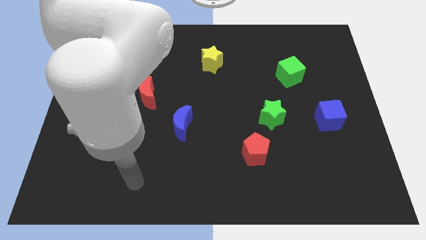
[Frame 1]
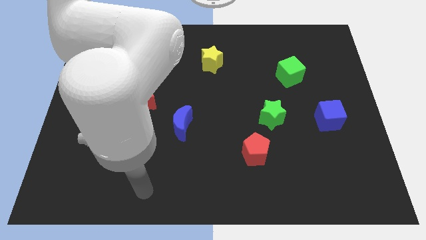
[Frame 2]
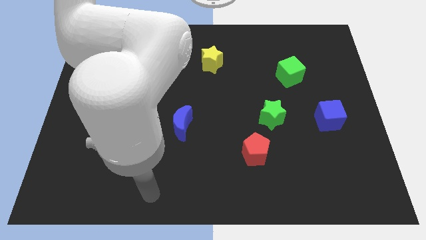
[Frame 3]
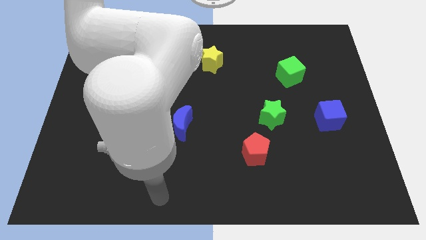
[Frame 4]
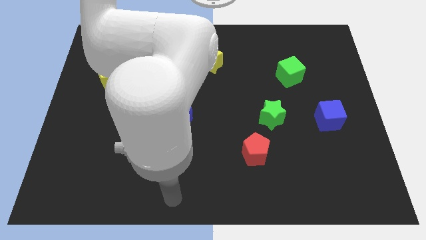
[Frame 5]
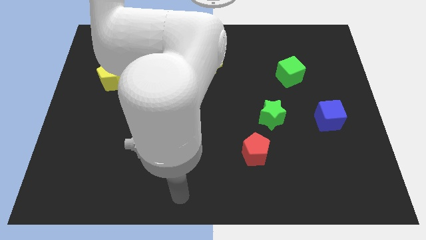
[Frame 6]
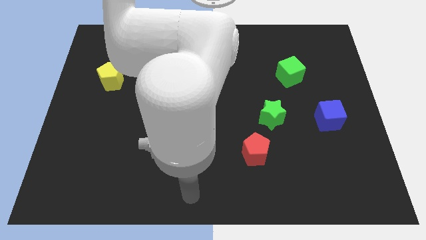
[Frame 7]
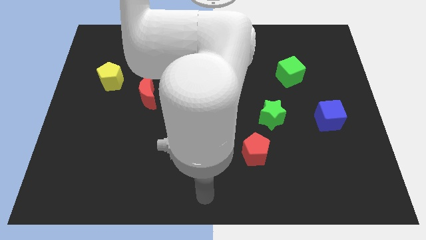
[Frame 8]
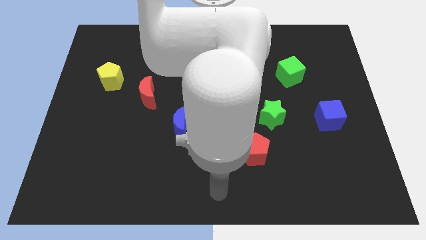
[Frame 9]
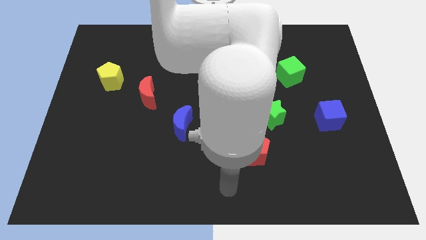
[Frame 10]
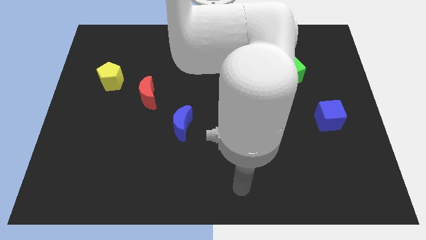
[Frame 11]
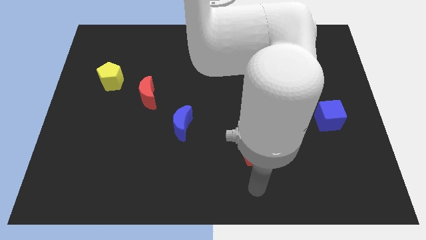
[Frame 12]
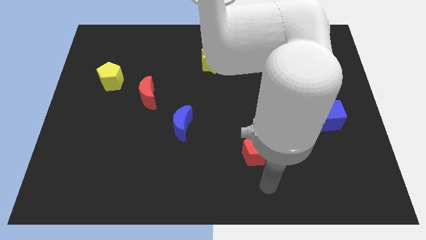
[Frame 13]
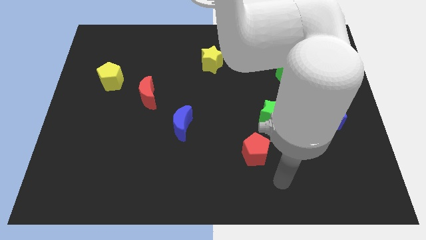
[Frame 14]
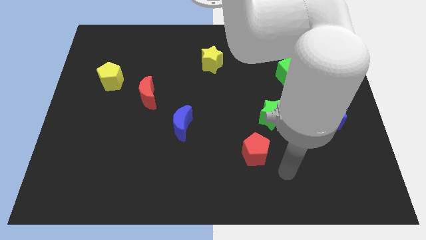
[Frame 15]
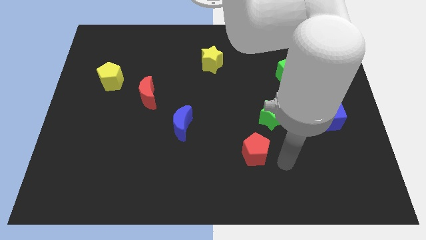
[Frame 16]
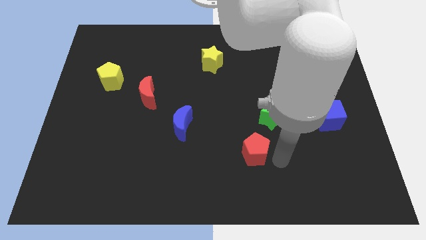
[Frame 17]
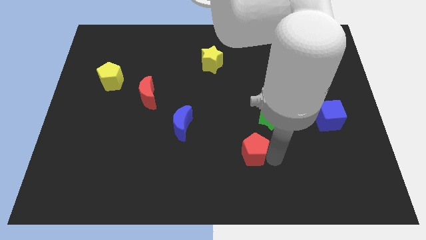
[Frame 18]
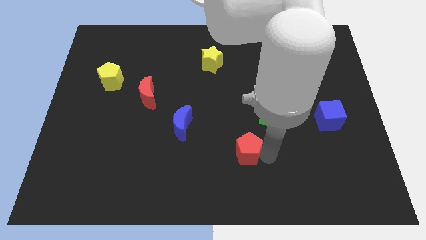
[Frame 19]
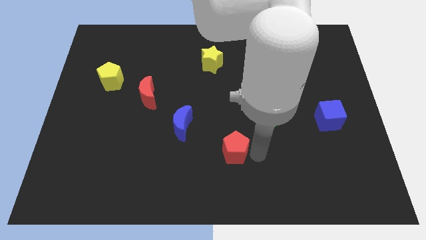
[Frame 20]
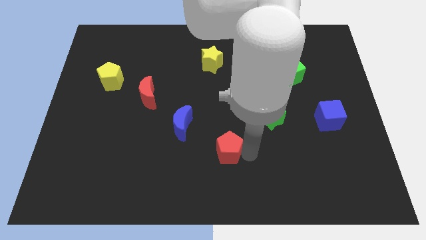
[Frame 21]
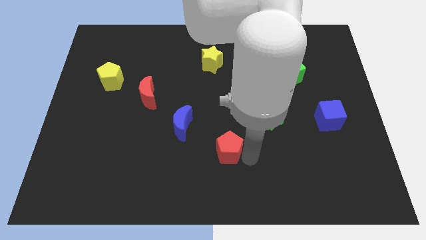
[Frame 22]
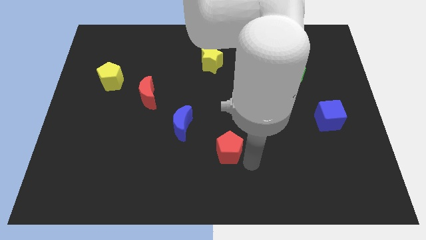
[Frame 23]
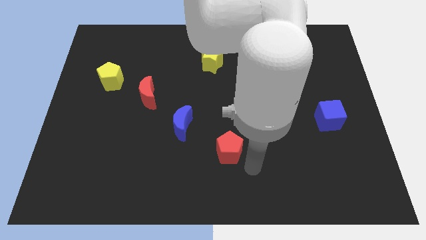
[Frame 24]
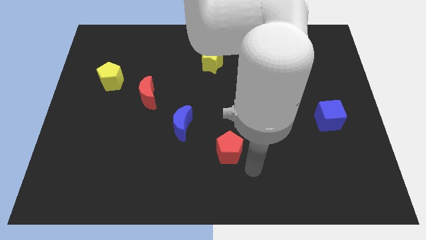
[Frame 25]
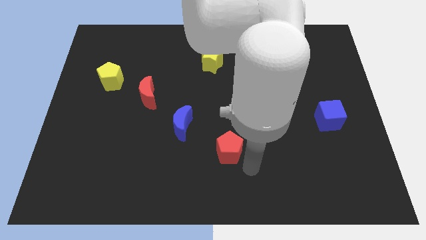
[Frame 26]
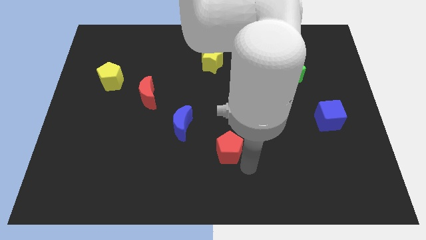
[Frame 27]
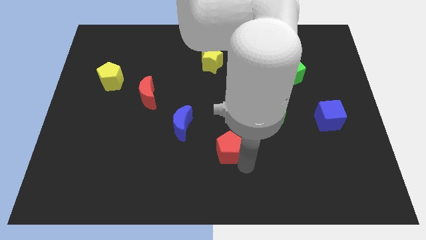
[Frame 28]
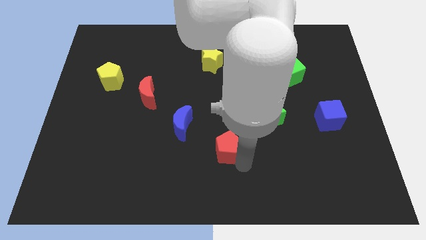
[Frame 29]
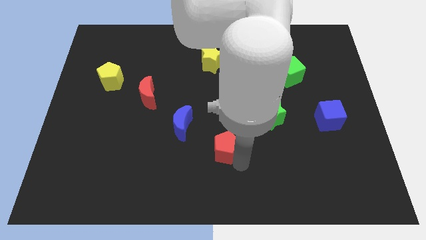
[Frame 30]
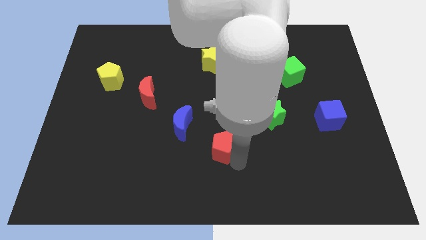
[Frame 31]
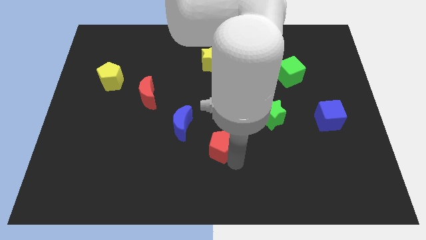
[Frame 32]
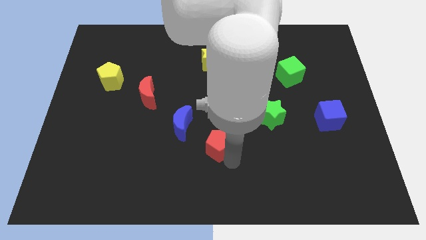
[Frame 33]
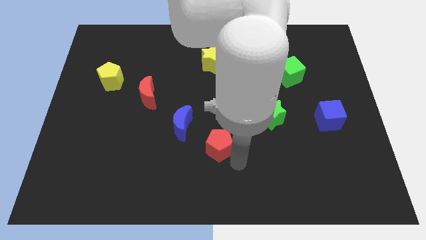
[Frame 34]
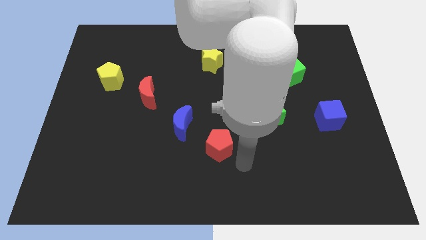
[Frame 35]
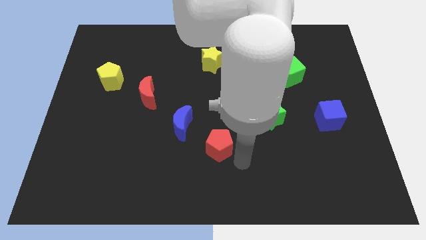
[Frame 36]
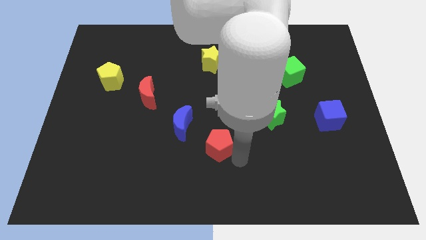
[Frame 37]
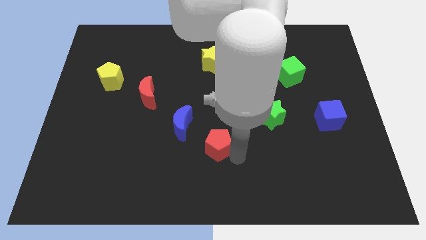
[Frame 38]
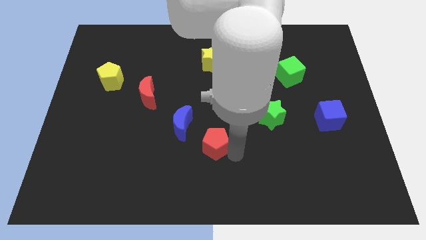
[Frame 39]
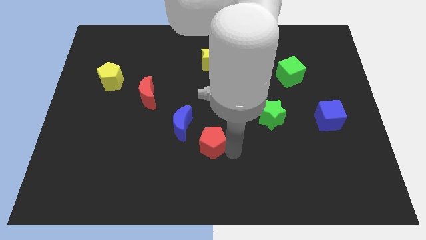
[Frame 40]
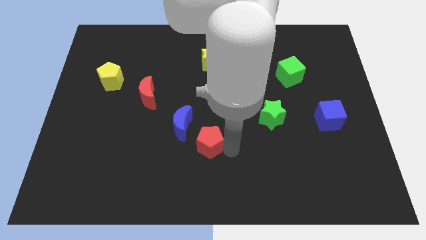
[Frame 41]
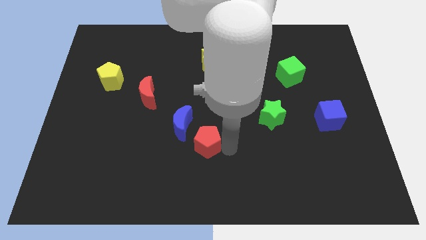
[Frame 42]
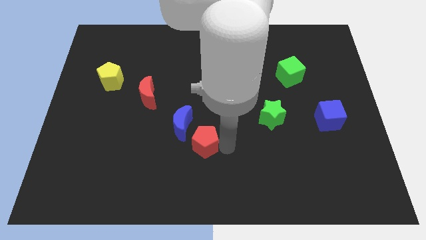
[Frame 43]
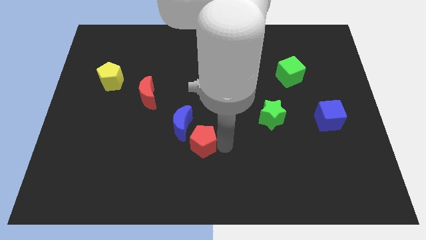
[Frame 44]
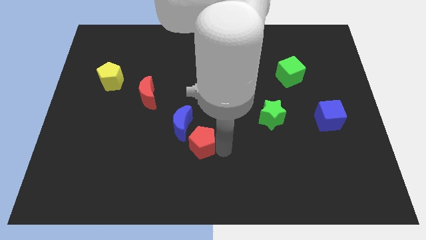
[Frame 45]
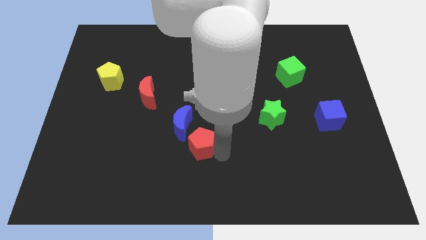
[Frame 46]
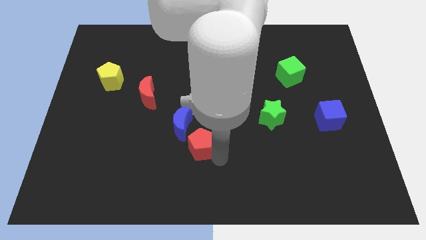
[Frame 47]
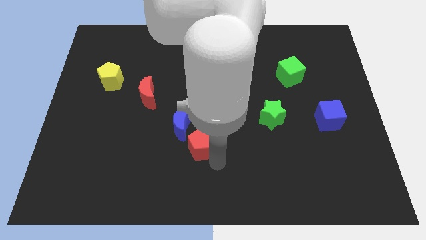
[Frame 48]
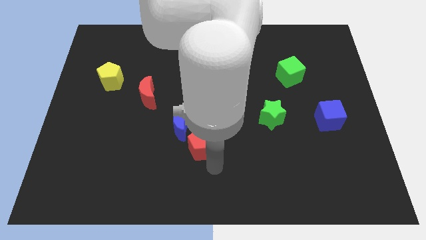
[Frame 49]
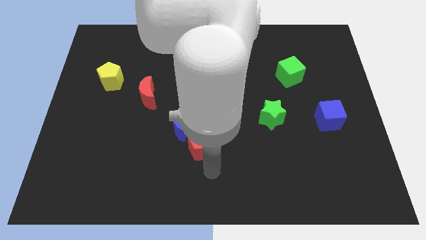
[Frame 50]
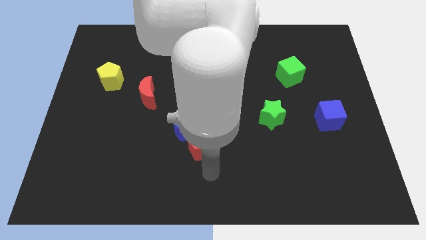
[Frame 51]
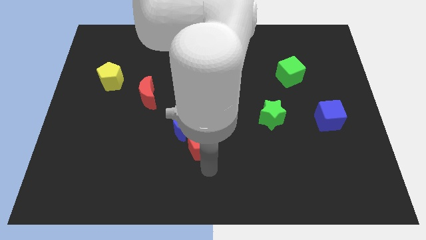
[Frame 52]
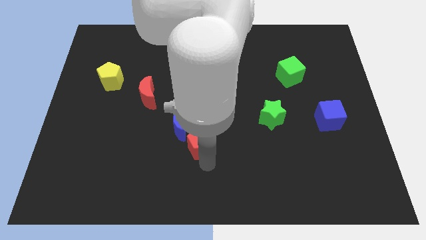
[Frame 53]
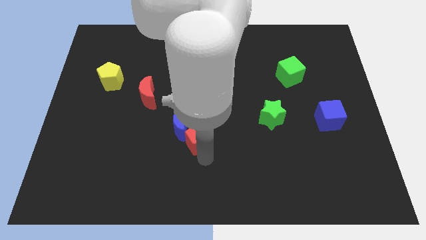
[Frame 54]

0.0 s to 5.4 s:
move the red pentagon next to the blue moon

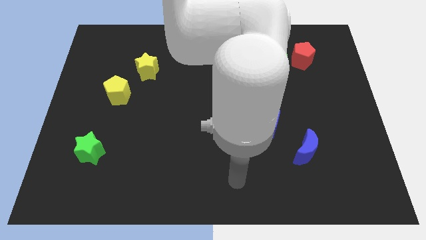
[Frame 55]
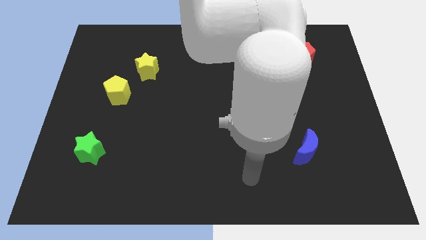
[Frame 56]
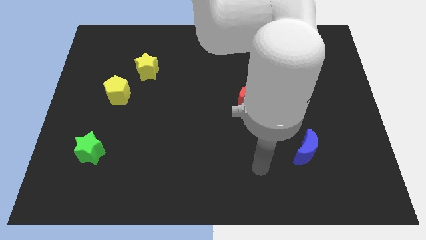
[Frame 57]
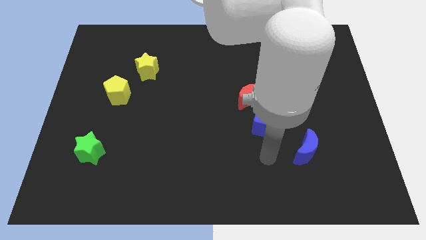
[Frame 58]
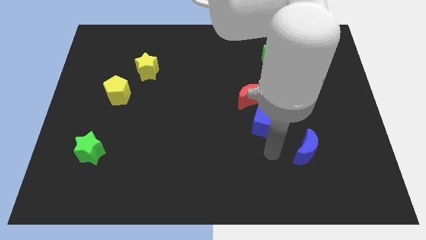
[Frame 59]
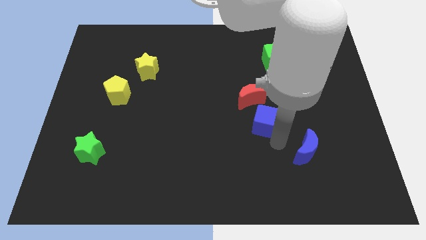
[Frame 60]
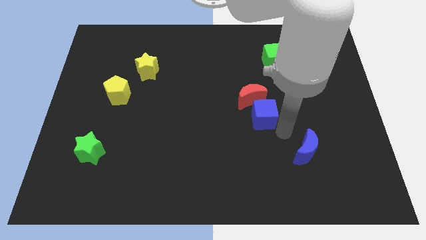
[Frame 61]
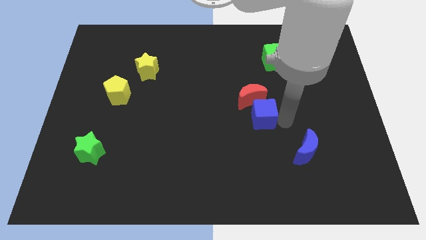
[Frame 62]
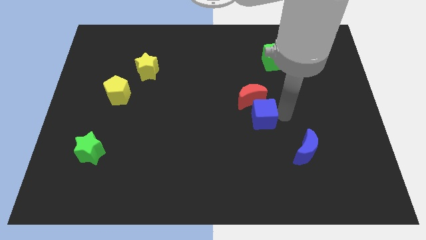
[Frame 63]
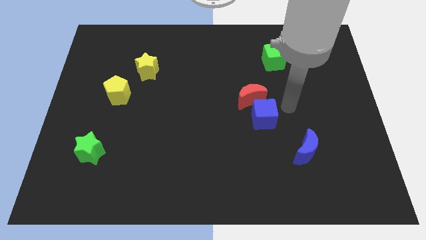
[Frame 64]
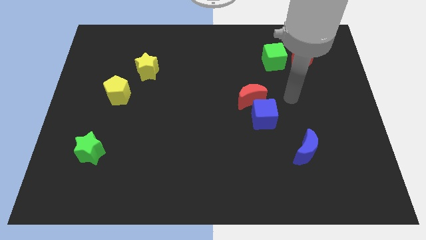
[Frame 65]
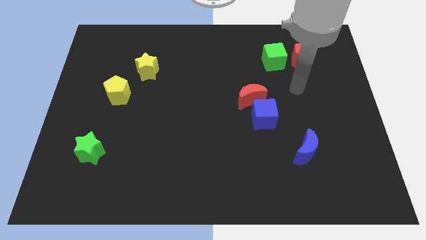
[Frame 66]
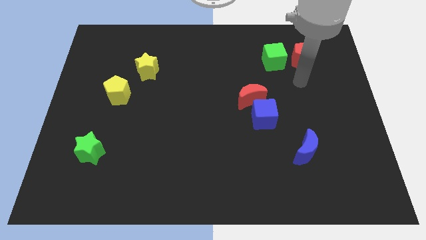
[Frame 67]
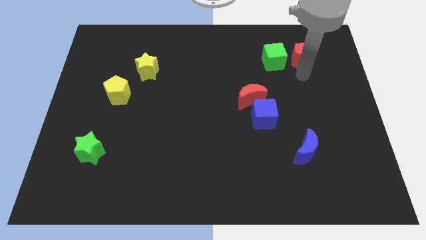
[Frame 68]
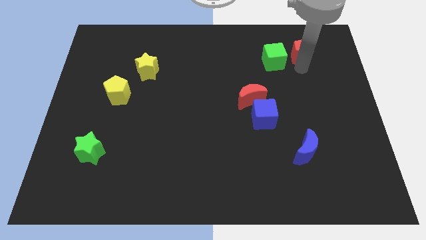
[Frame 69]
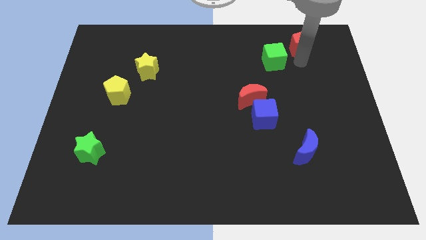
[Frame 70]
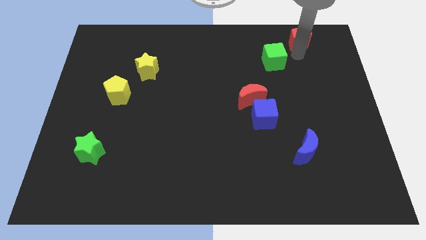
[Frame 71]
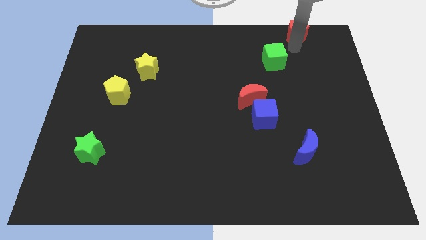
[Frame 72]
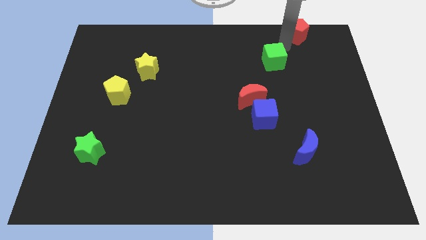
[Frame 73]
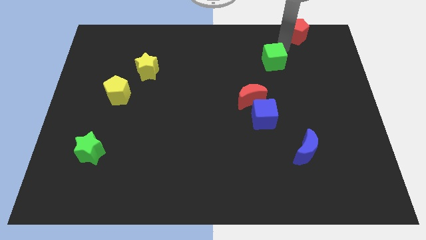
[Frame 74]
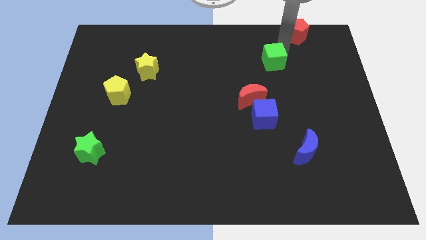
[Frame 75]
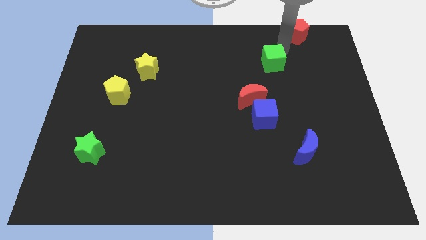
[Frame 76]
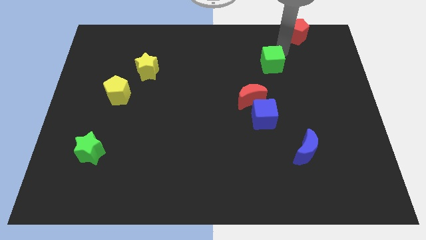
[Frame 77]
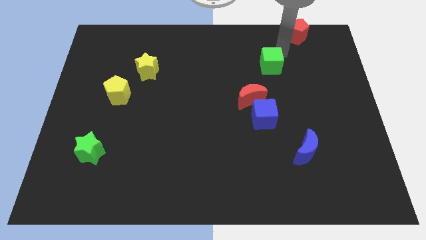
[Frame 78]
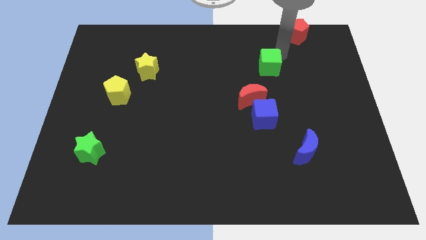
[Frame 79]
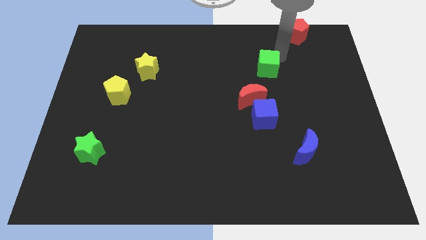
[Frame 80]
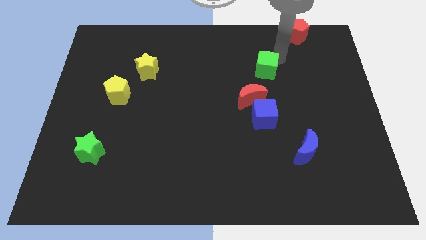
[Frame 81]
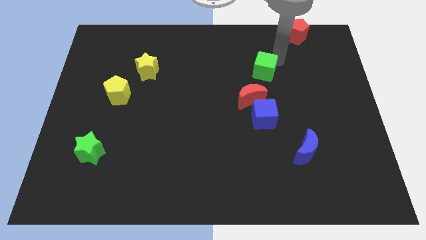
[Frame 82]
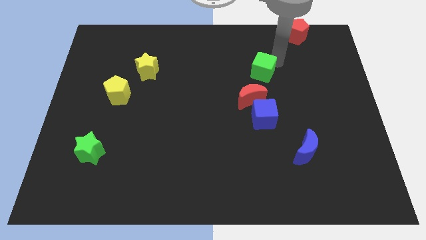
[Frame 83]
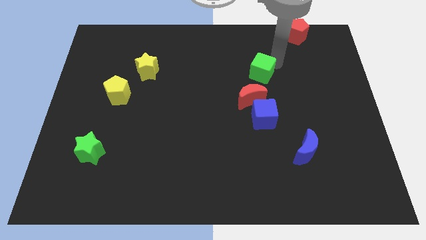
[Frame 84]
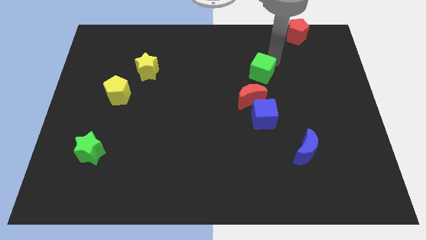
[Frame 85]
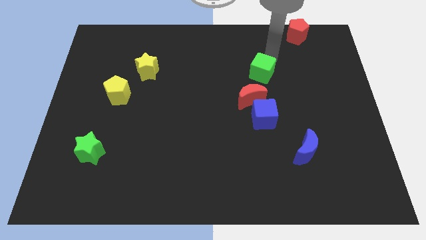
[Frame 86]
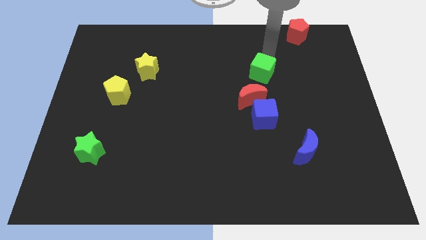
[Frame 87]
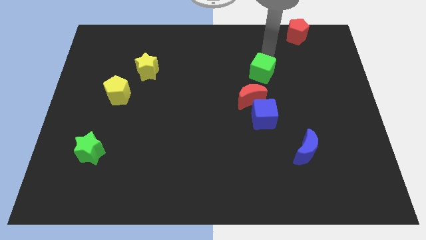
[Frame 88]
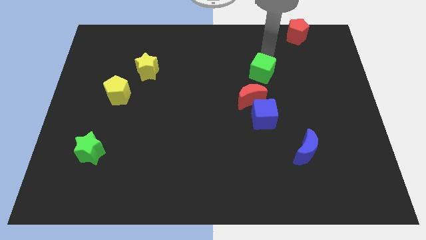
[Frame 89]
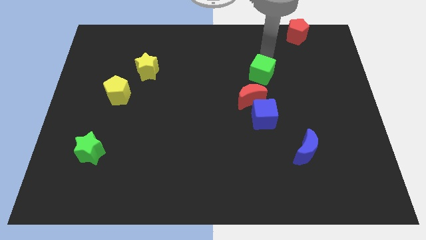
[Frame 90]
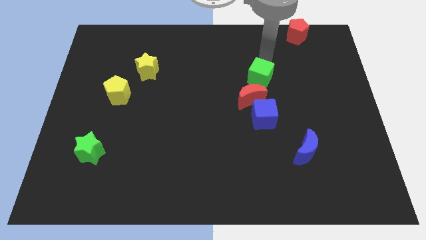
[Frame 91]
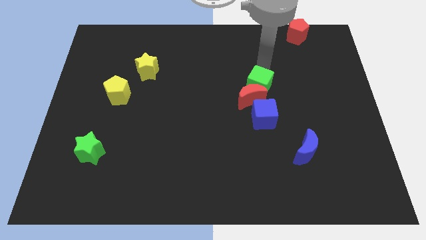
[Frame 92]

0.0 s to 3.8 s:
move the green cube next to the red moon
